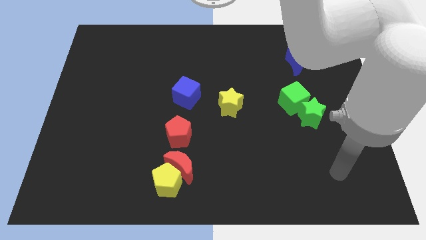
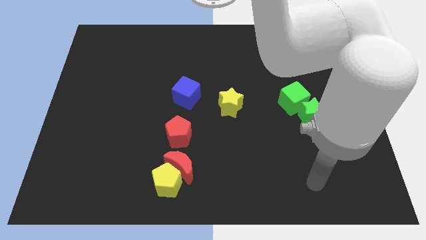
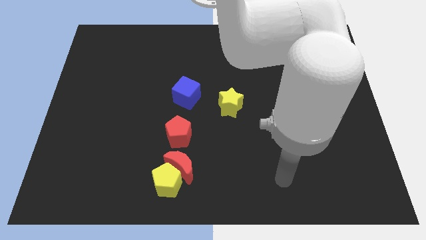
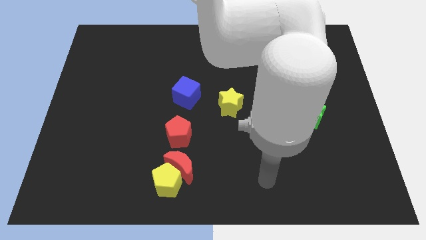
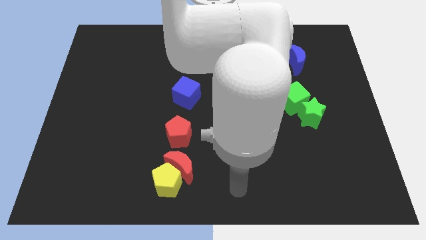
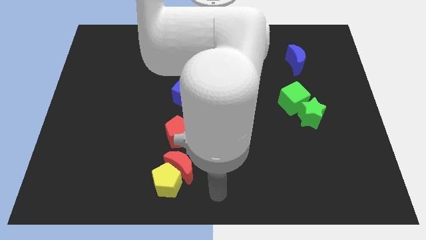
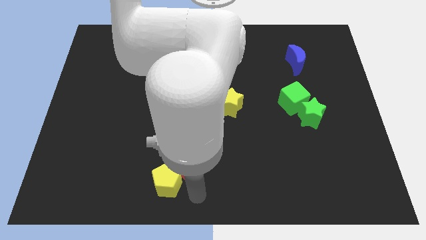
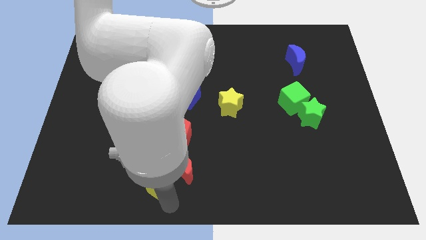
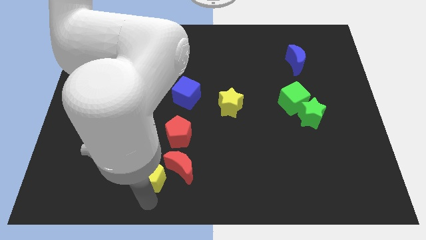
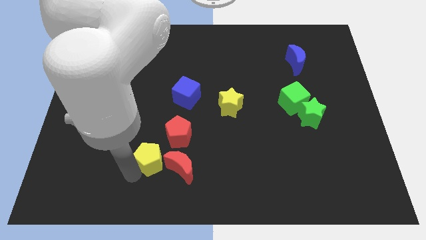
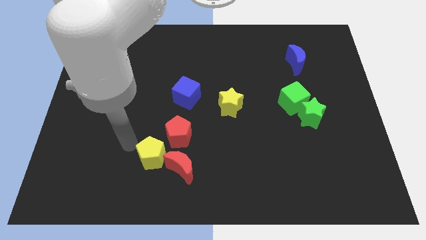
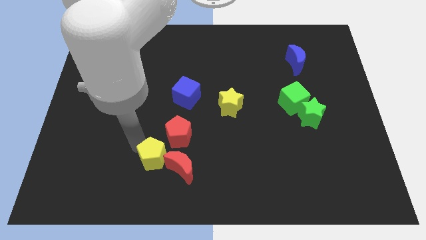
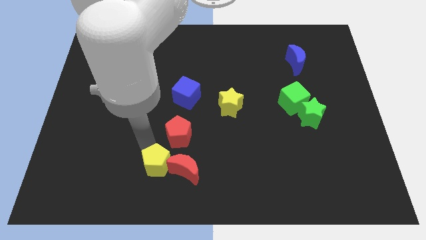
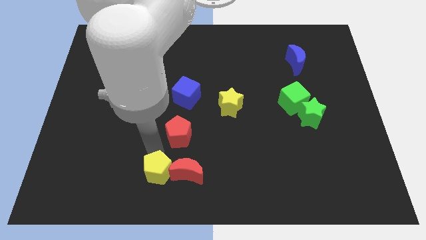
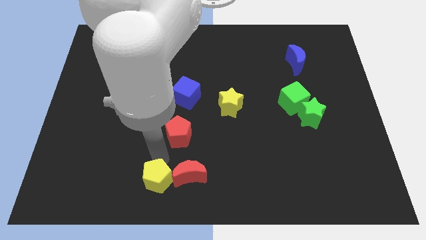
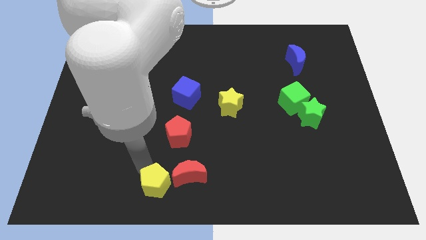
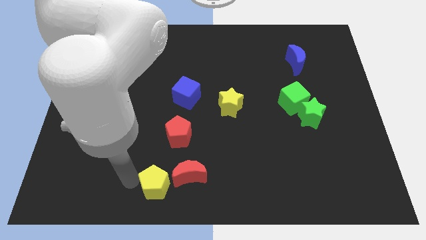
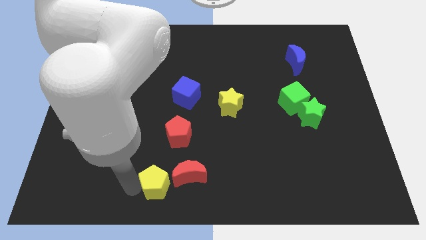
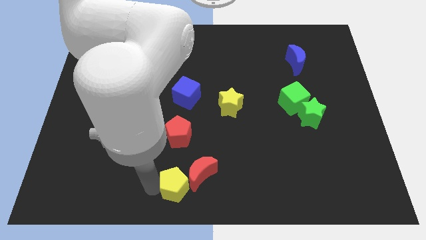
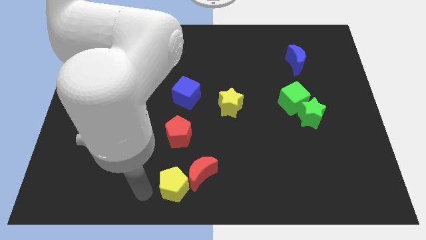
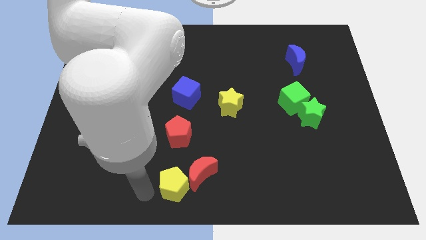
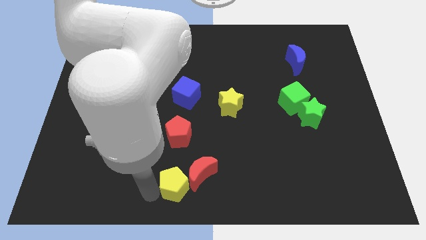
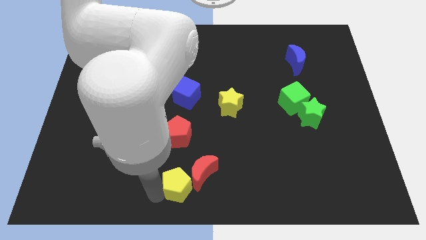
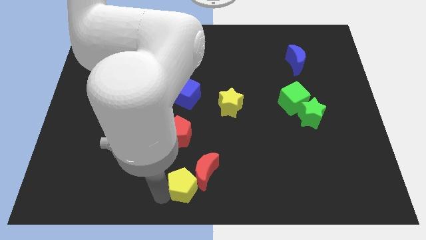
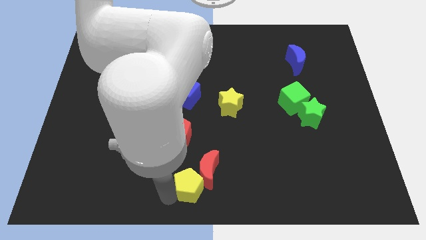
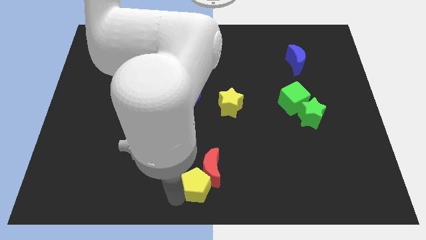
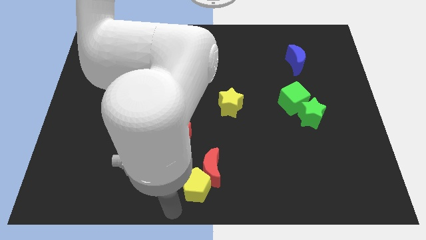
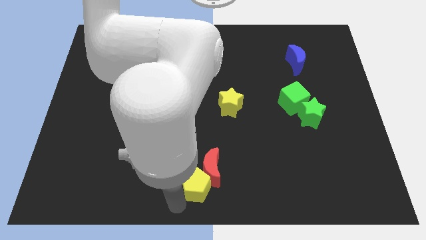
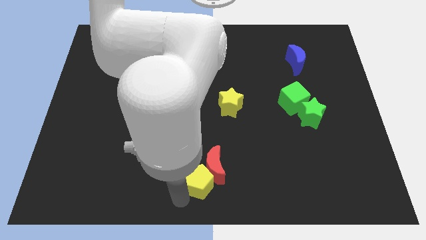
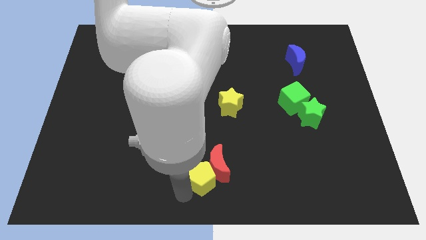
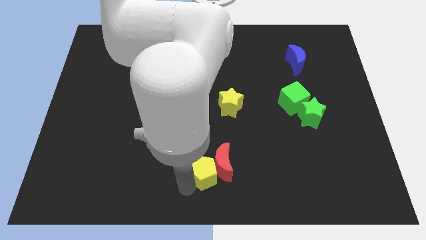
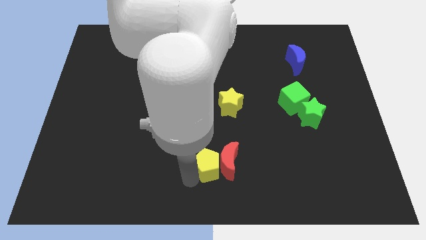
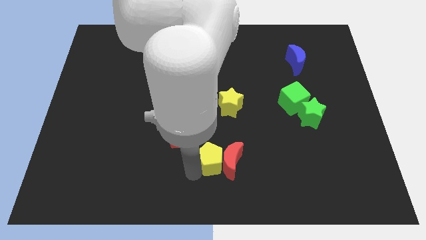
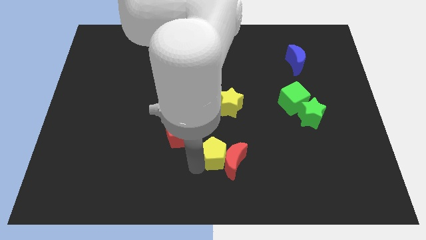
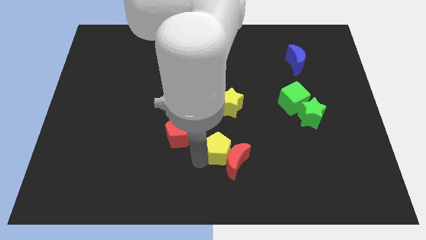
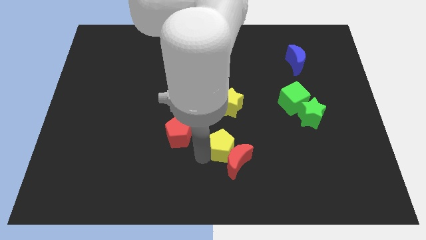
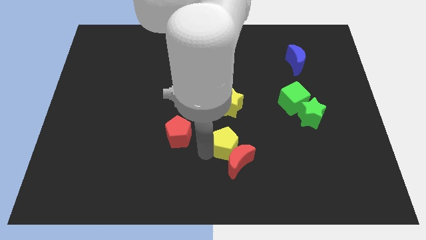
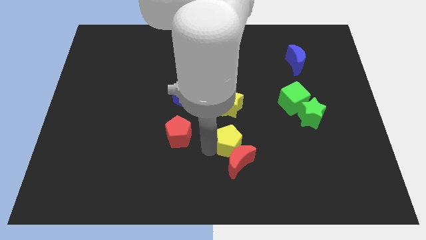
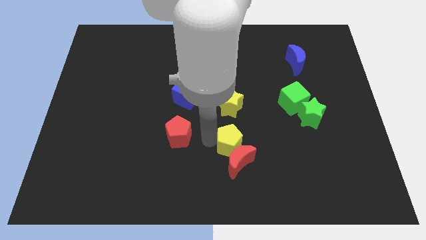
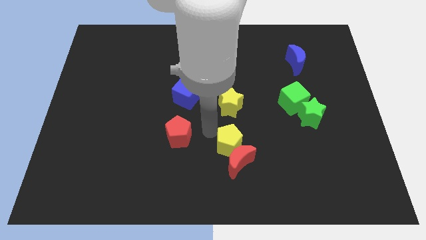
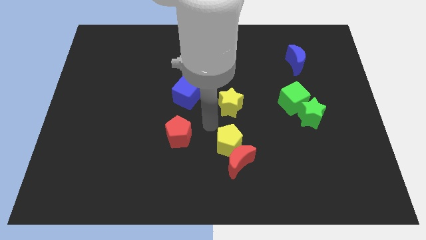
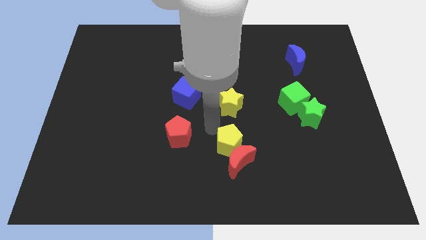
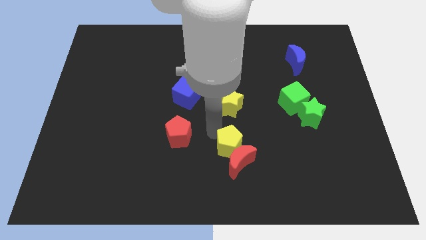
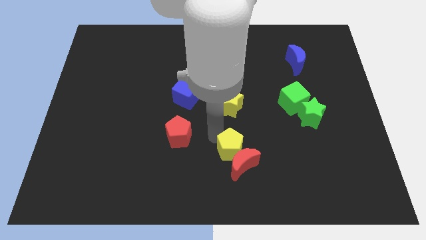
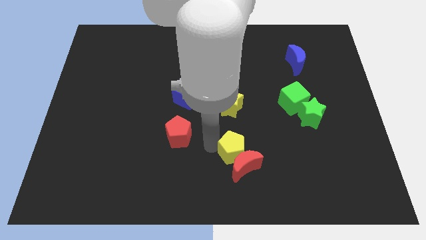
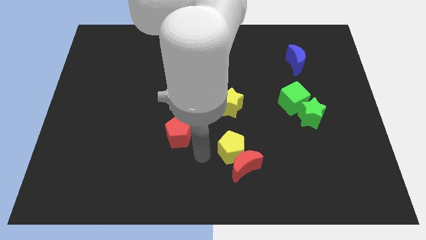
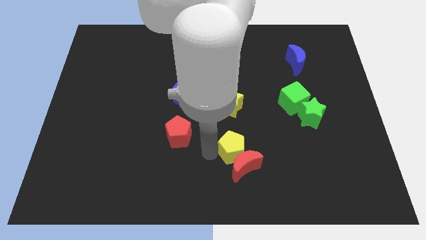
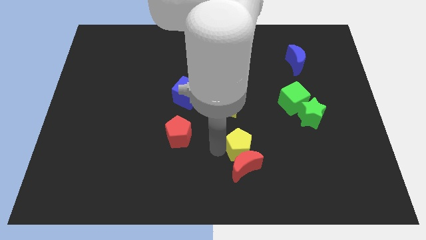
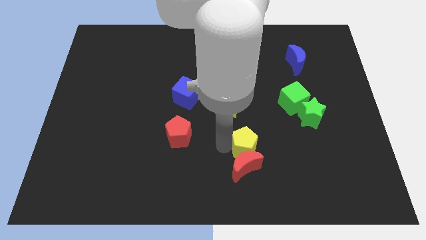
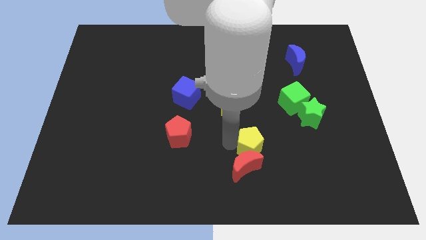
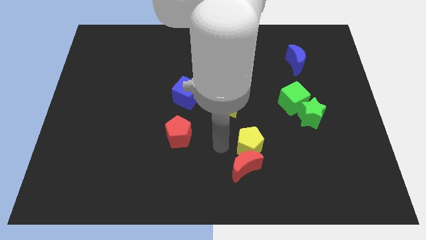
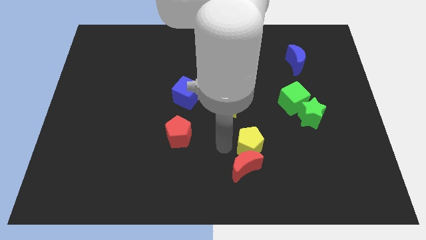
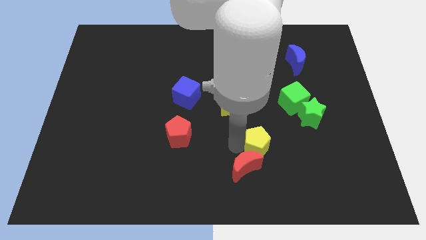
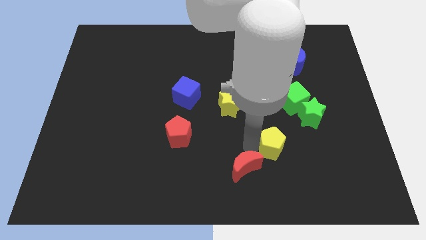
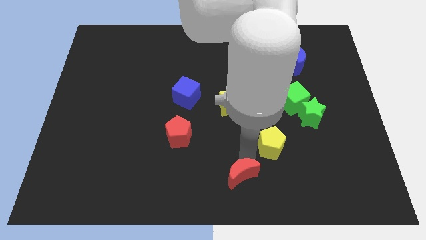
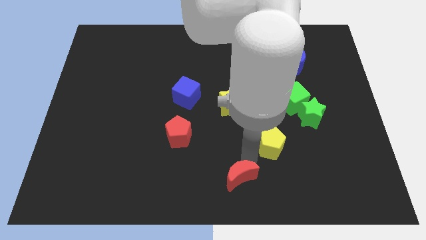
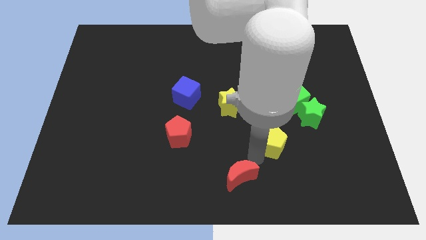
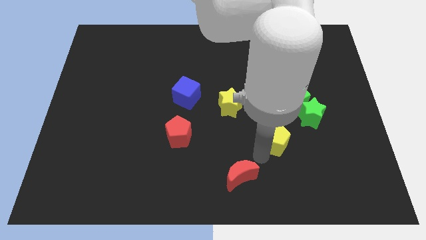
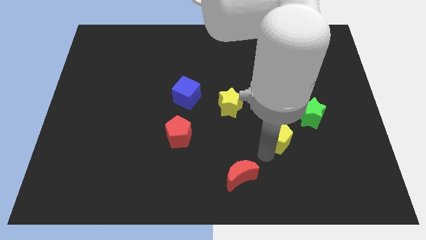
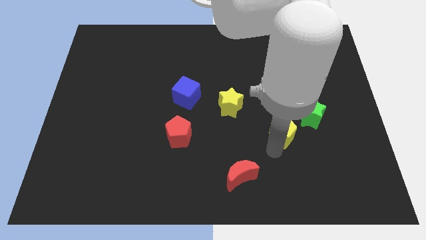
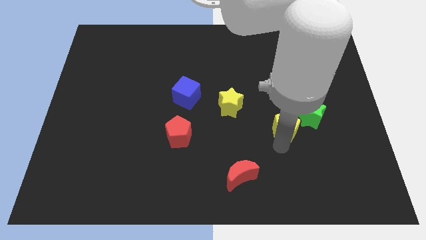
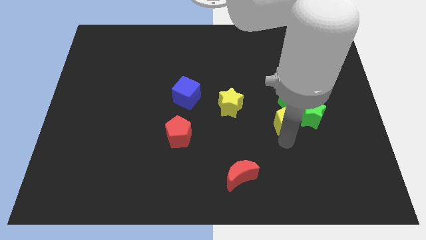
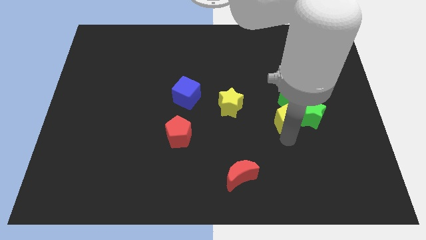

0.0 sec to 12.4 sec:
slide the yellow pentagon close to the green star

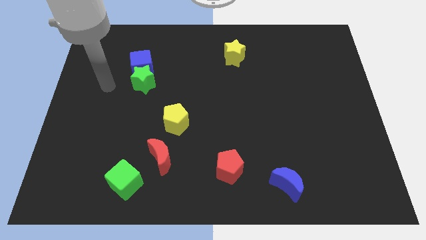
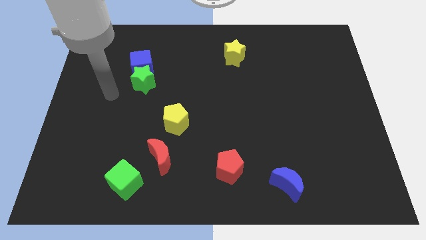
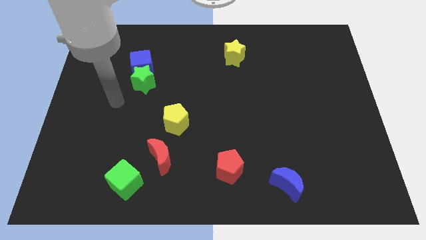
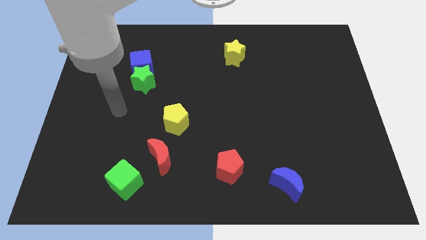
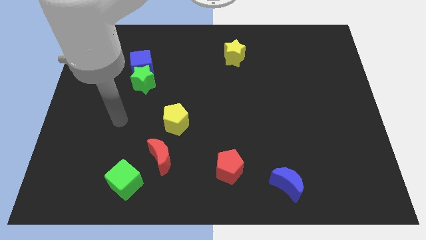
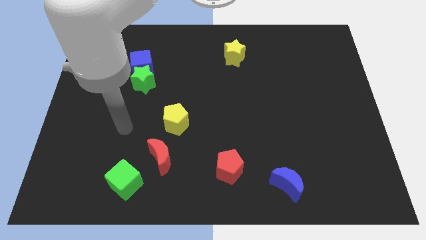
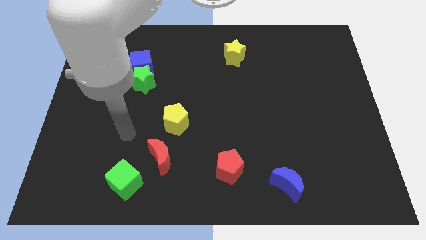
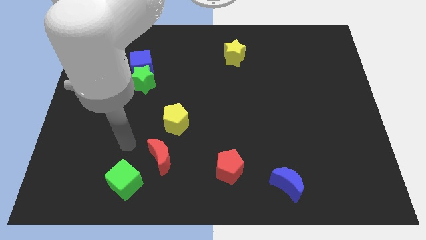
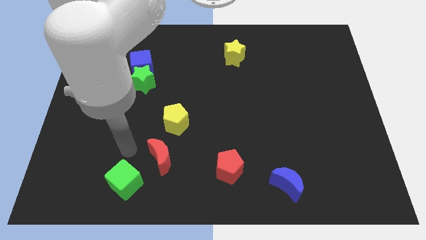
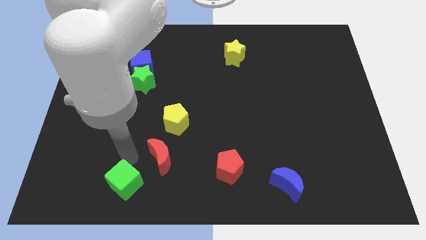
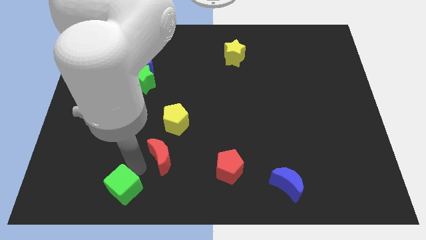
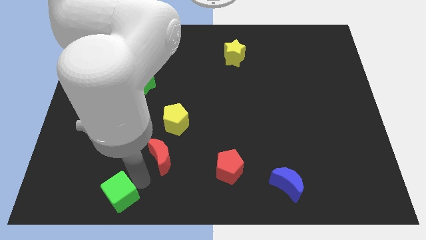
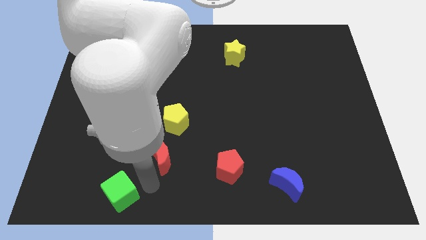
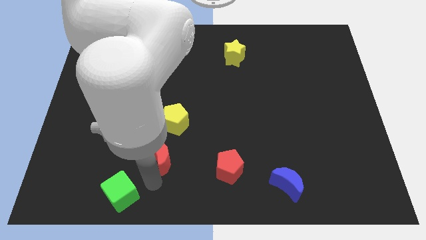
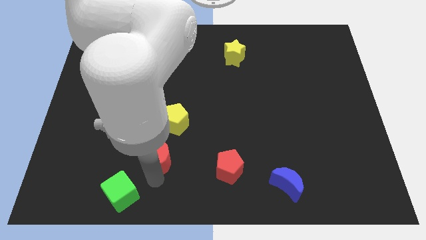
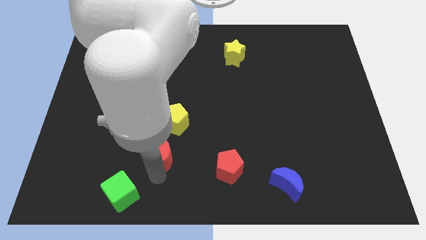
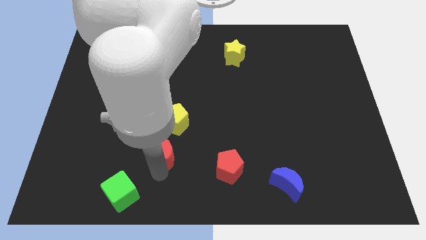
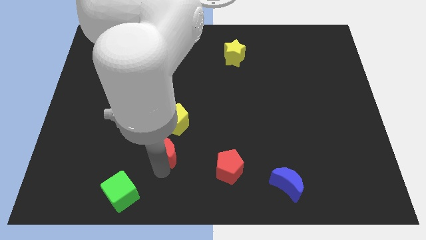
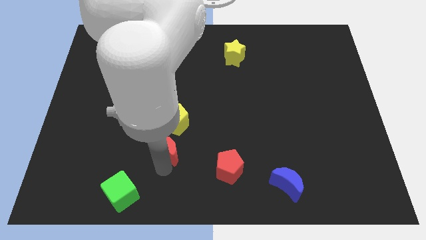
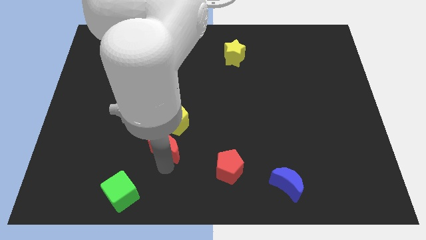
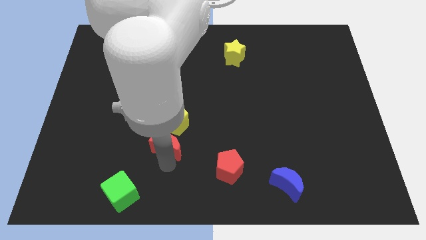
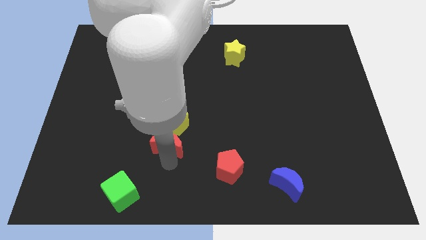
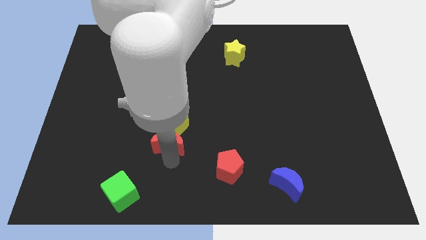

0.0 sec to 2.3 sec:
put the red moon close to the yellow pentagon
